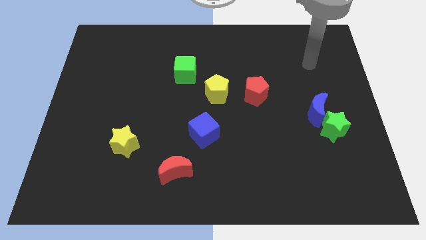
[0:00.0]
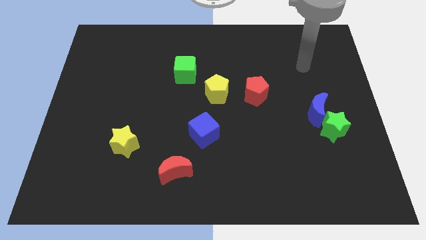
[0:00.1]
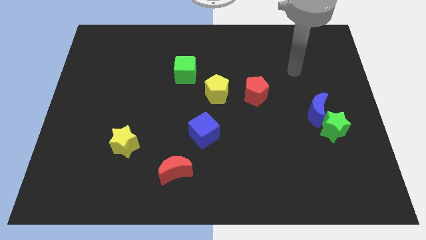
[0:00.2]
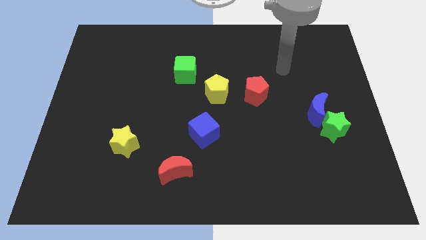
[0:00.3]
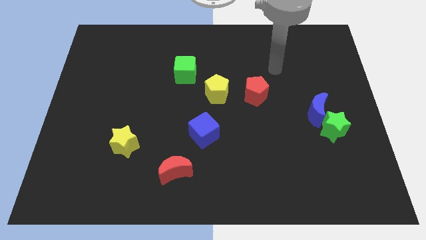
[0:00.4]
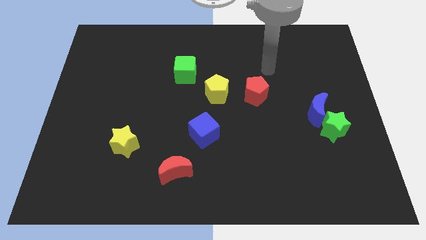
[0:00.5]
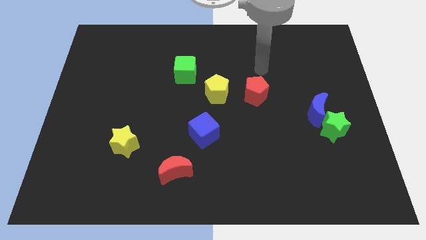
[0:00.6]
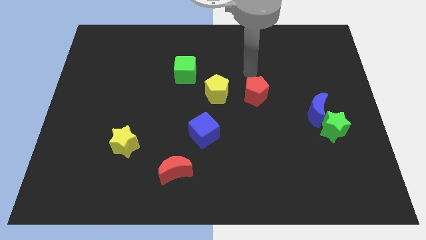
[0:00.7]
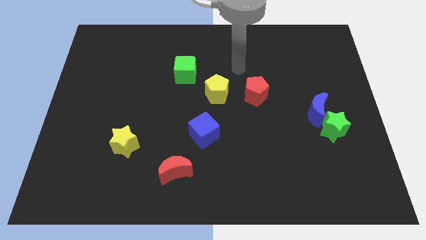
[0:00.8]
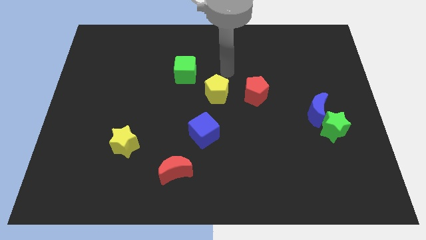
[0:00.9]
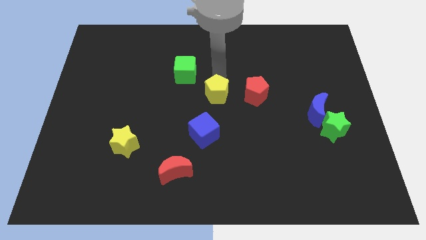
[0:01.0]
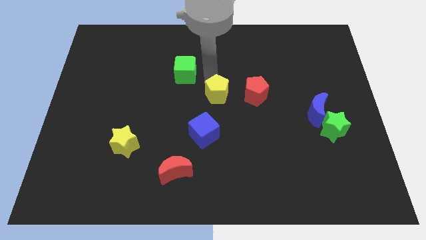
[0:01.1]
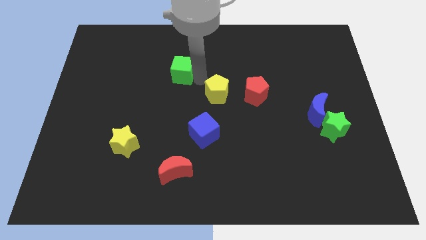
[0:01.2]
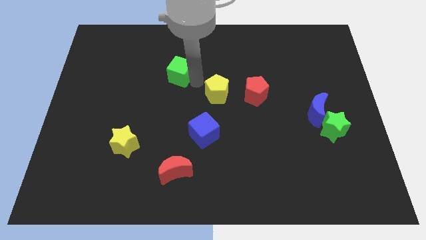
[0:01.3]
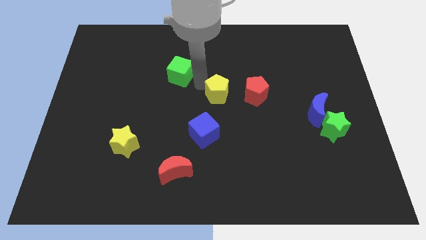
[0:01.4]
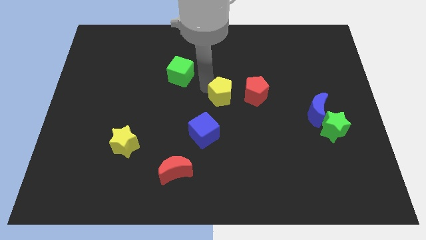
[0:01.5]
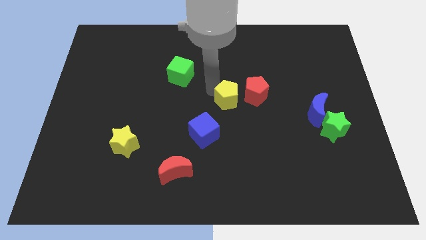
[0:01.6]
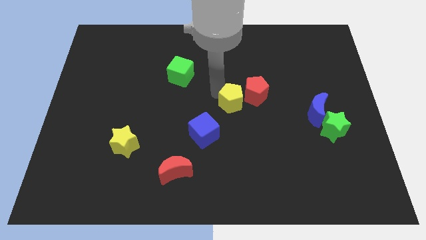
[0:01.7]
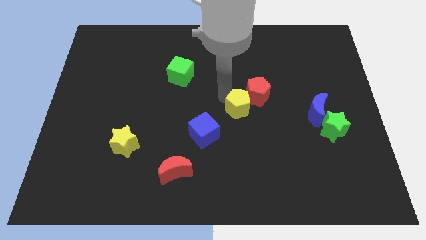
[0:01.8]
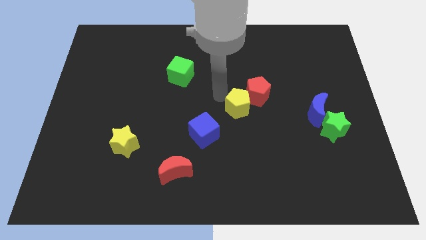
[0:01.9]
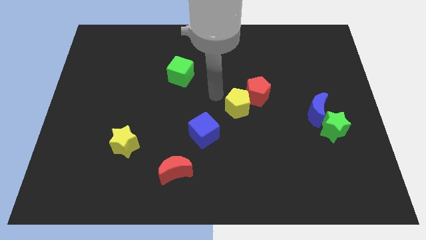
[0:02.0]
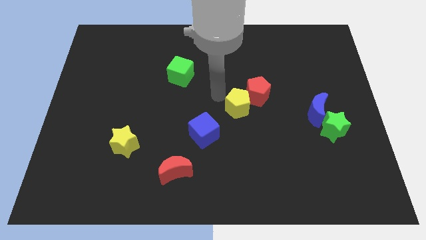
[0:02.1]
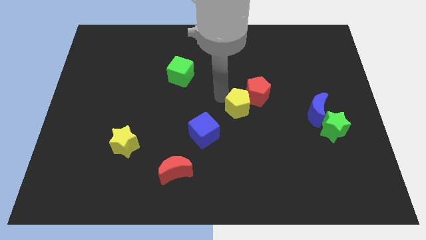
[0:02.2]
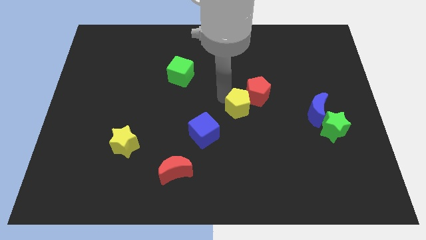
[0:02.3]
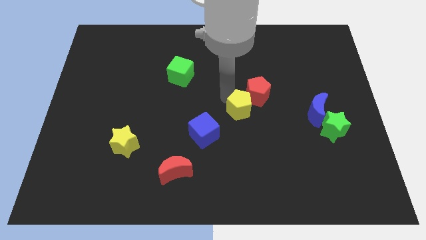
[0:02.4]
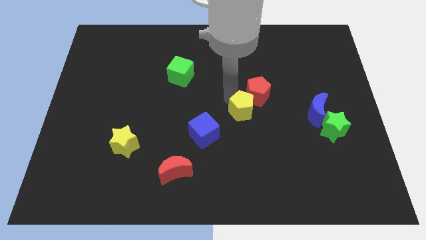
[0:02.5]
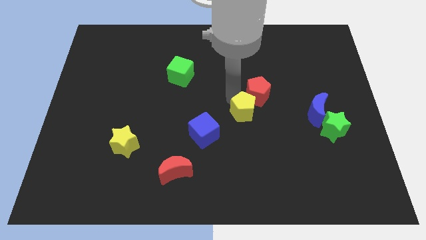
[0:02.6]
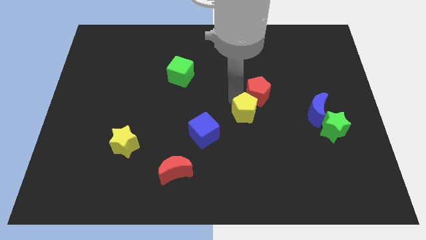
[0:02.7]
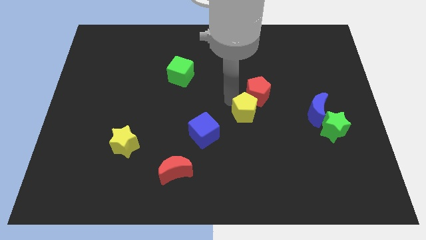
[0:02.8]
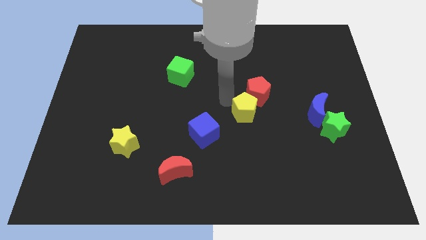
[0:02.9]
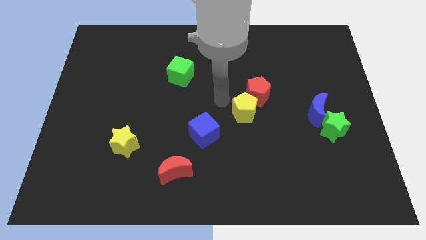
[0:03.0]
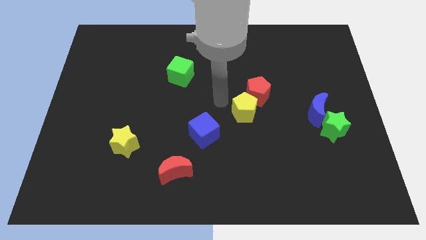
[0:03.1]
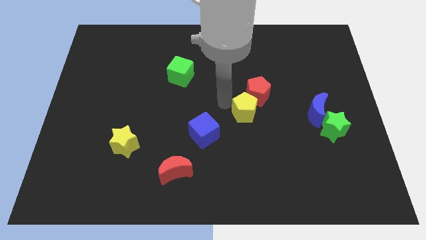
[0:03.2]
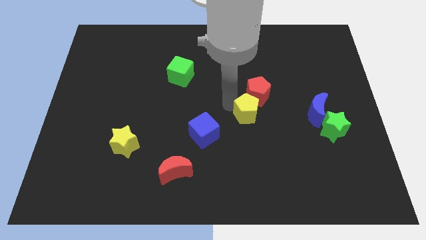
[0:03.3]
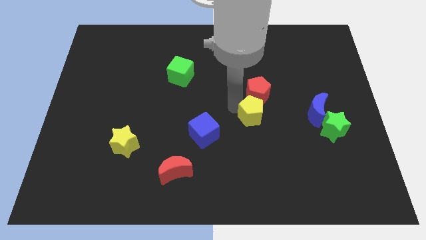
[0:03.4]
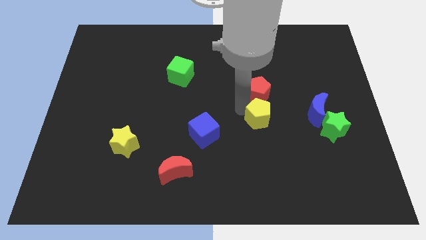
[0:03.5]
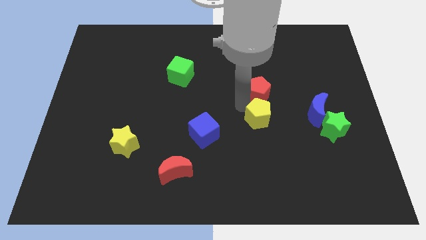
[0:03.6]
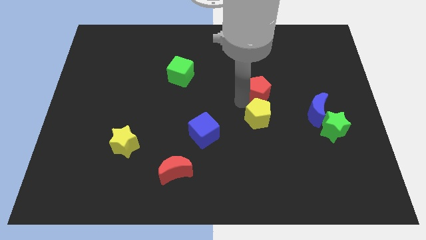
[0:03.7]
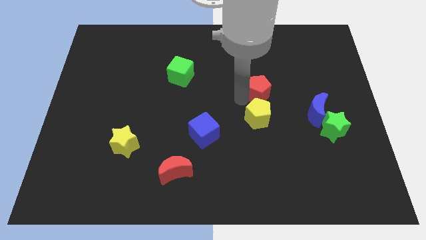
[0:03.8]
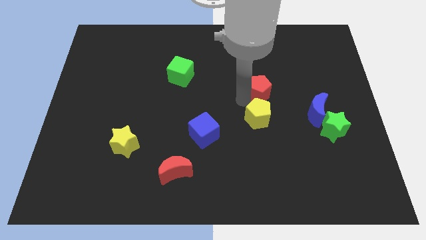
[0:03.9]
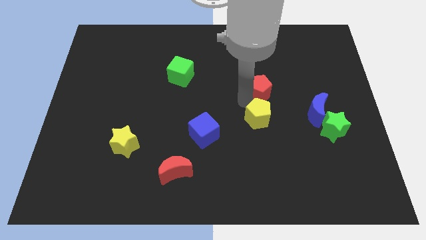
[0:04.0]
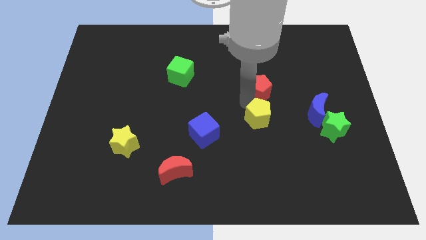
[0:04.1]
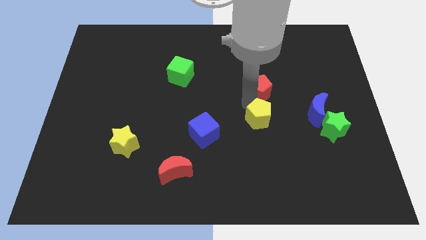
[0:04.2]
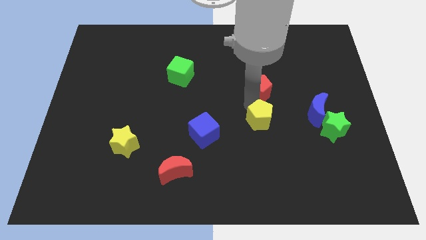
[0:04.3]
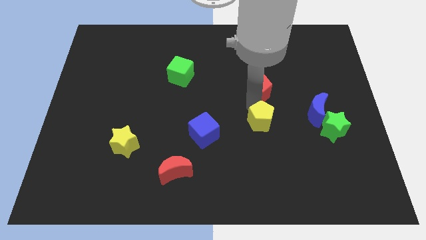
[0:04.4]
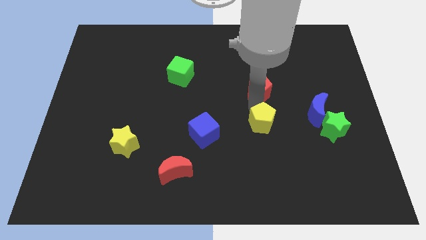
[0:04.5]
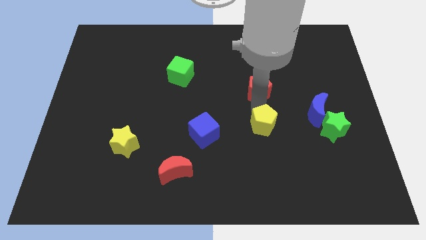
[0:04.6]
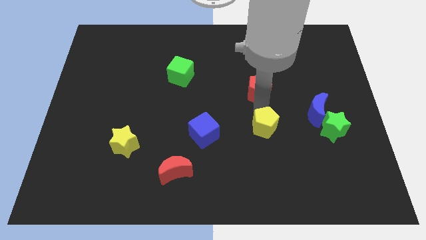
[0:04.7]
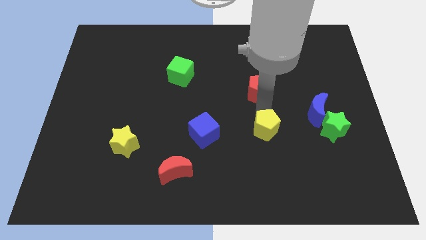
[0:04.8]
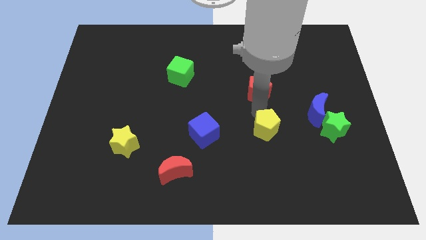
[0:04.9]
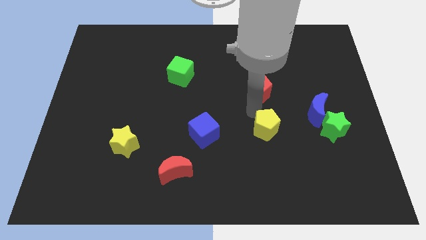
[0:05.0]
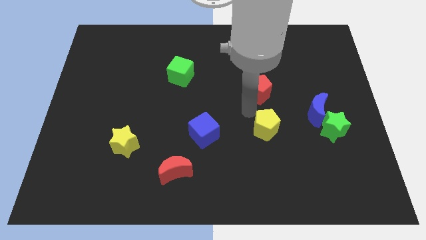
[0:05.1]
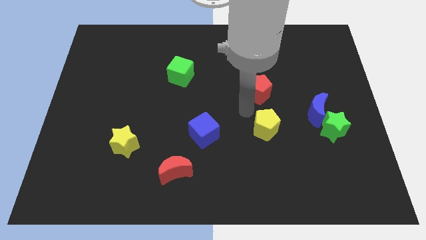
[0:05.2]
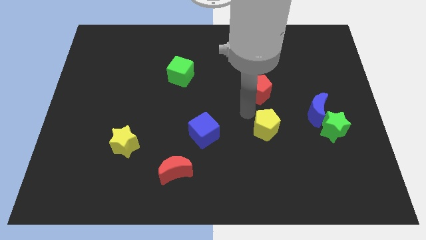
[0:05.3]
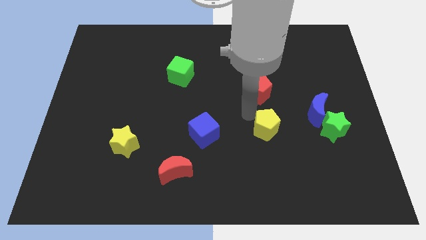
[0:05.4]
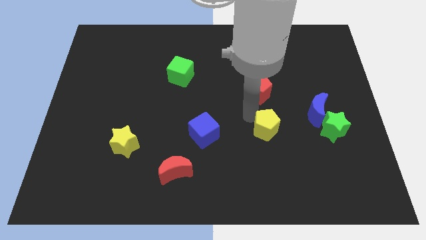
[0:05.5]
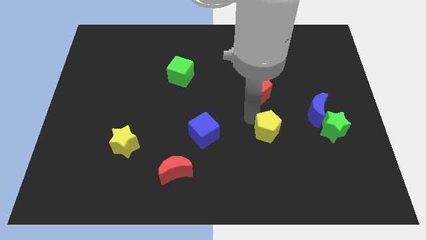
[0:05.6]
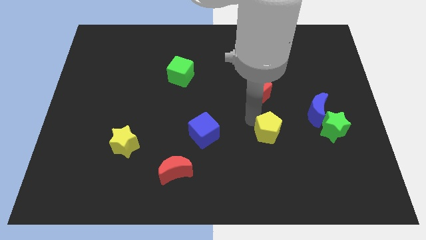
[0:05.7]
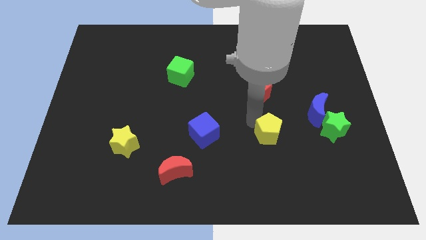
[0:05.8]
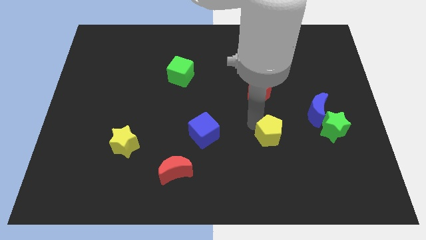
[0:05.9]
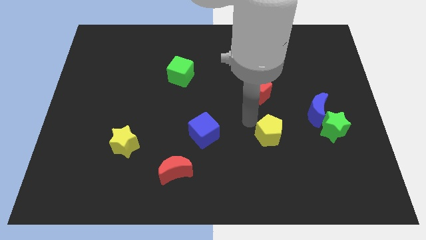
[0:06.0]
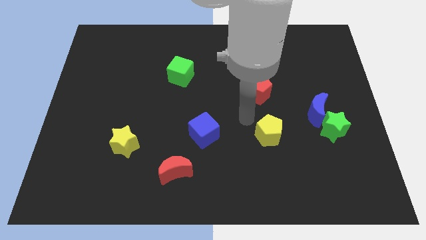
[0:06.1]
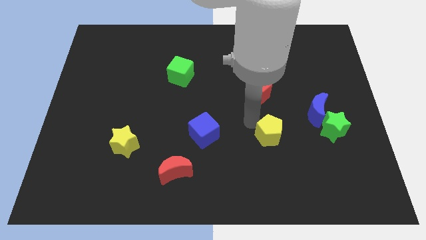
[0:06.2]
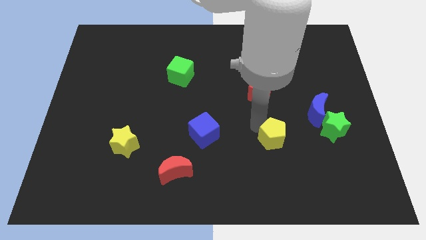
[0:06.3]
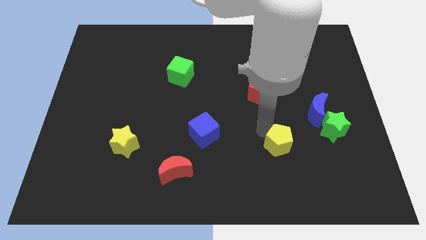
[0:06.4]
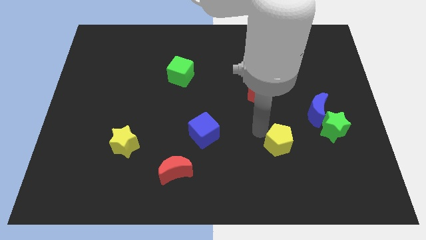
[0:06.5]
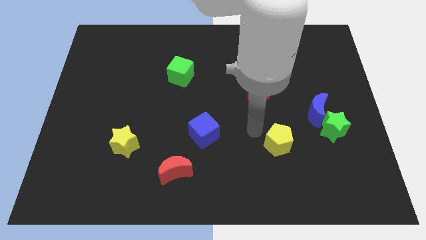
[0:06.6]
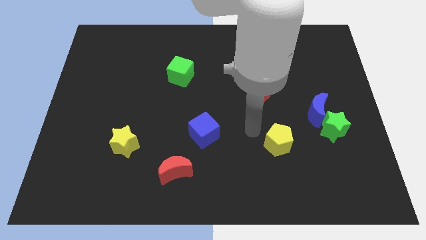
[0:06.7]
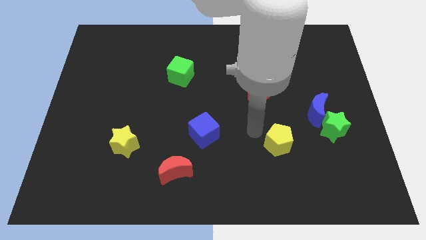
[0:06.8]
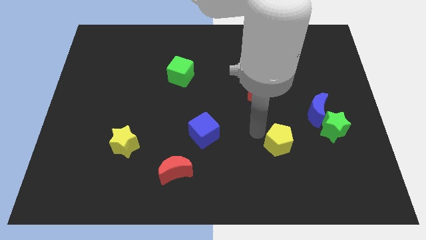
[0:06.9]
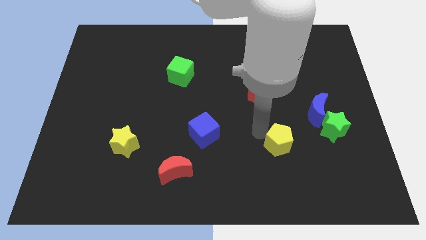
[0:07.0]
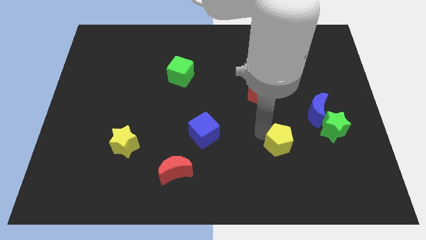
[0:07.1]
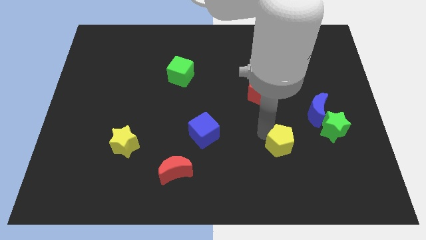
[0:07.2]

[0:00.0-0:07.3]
slide the yellow pentagon downwards and then to the right

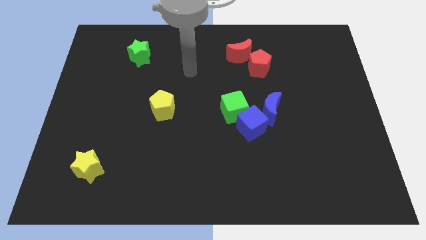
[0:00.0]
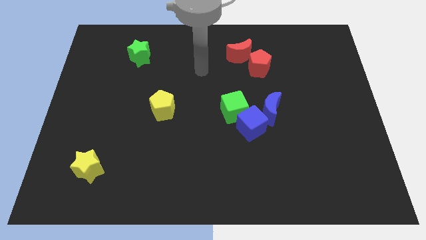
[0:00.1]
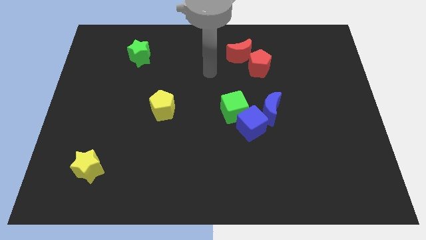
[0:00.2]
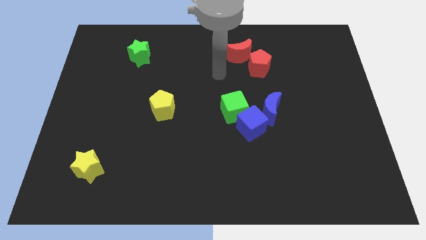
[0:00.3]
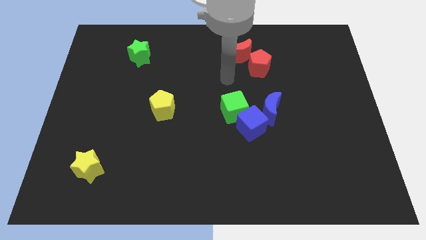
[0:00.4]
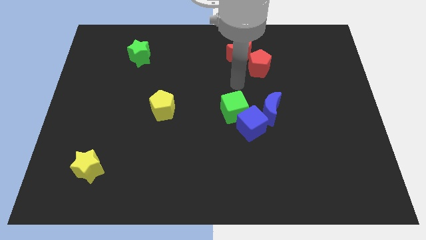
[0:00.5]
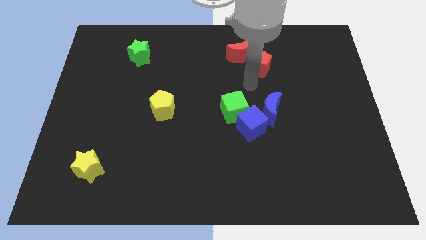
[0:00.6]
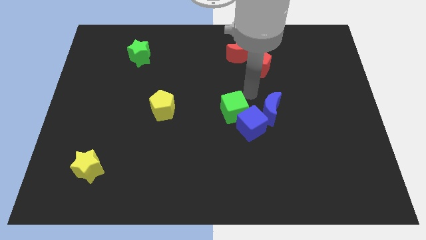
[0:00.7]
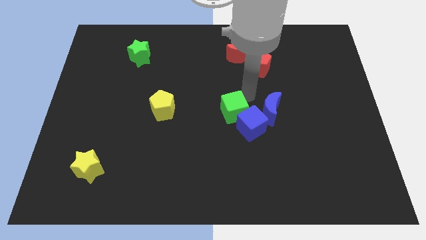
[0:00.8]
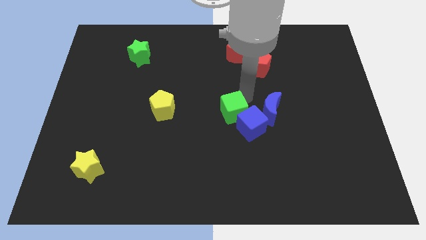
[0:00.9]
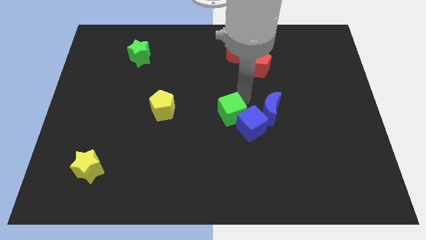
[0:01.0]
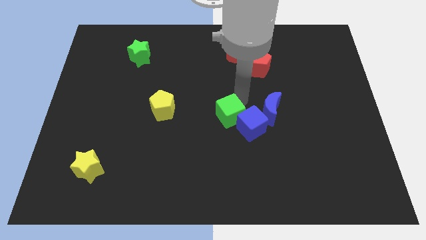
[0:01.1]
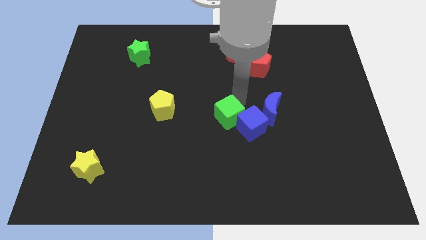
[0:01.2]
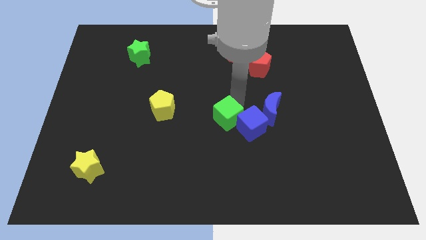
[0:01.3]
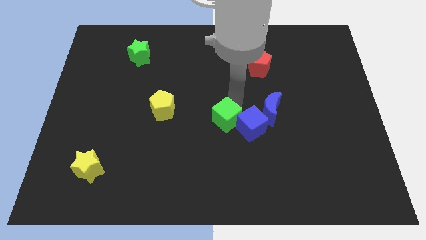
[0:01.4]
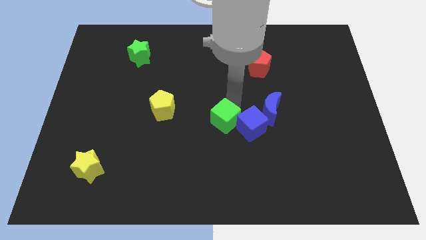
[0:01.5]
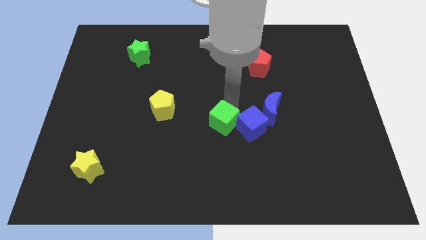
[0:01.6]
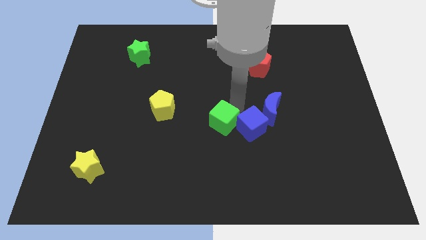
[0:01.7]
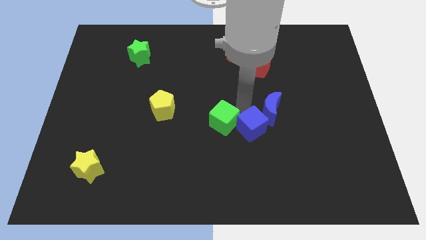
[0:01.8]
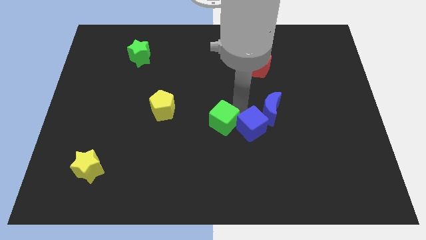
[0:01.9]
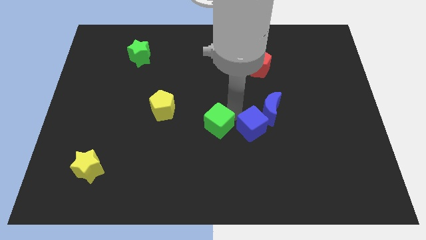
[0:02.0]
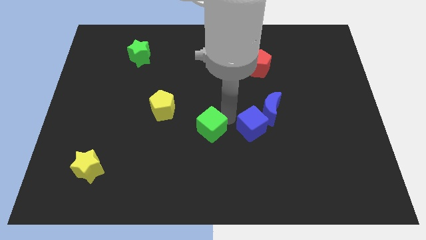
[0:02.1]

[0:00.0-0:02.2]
slightly move the green cube downwards and then left
